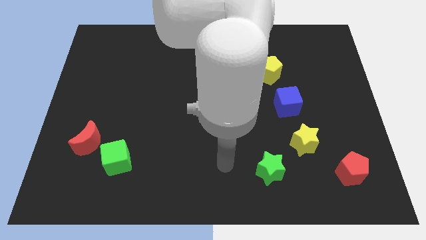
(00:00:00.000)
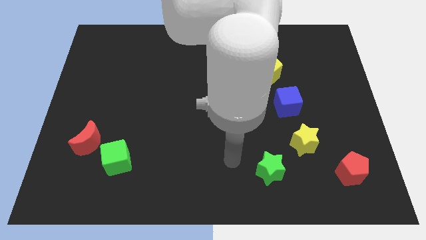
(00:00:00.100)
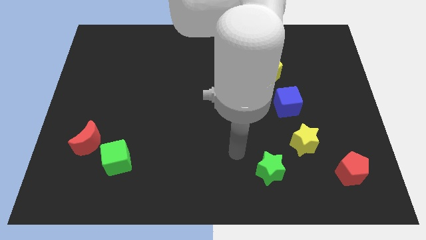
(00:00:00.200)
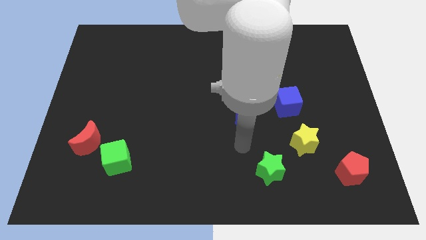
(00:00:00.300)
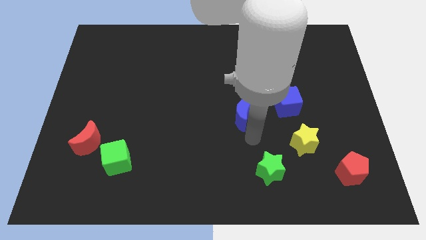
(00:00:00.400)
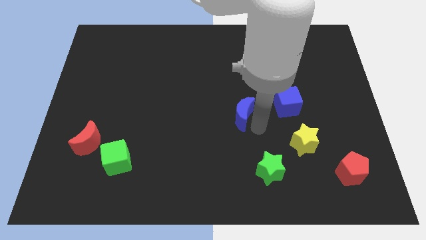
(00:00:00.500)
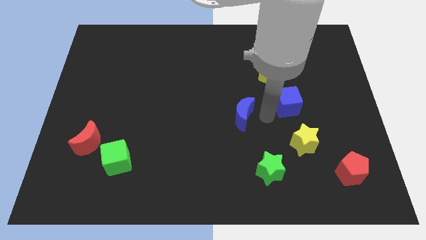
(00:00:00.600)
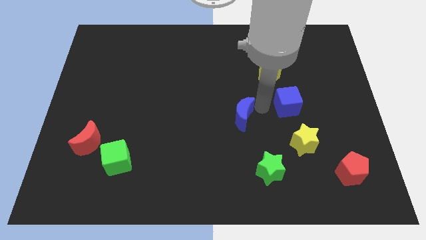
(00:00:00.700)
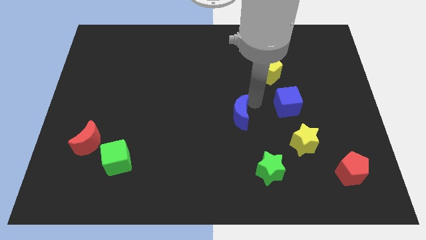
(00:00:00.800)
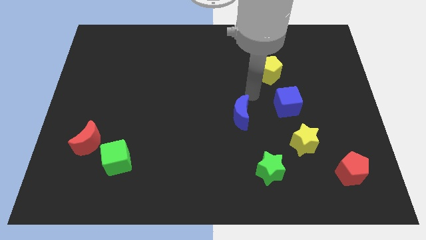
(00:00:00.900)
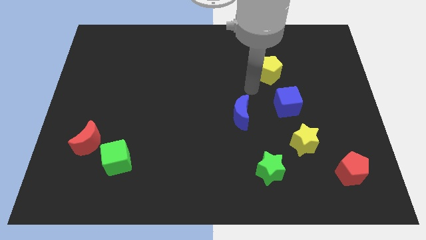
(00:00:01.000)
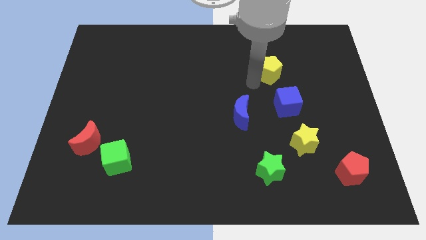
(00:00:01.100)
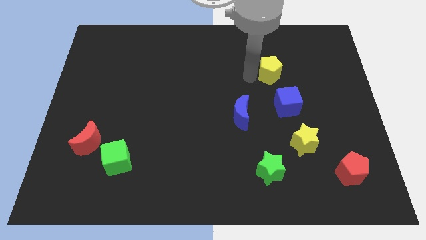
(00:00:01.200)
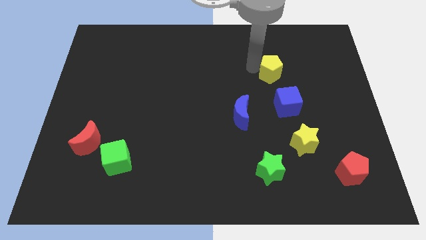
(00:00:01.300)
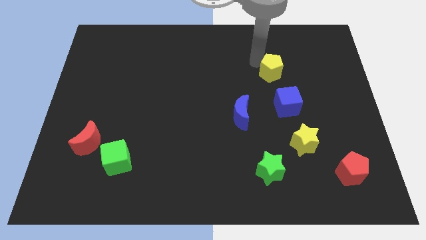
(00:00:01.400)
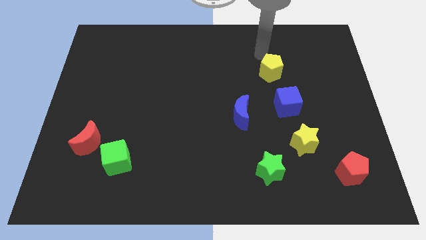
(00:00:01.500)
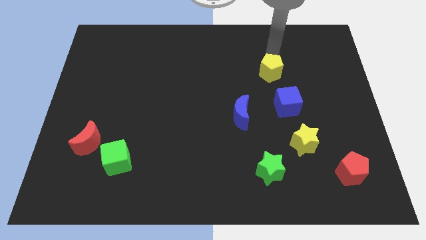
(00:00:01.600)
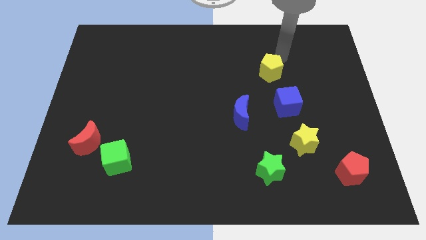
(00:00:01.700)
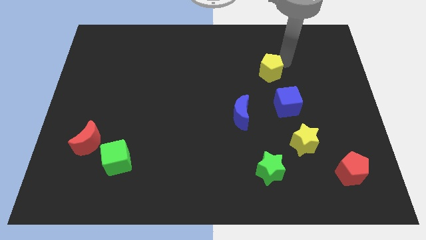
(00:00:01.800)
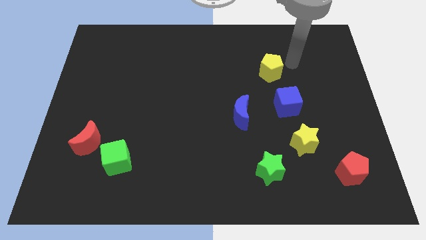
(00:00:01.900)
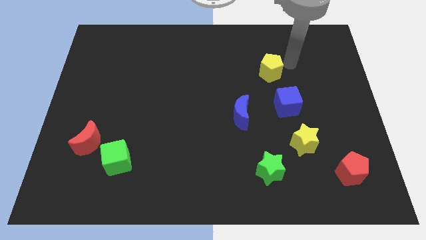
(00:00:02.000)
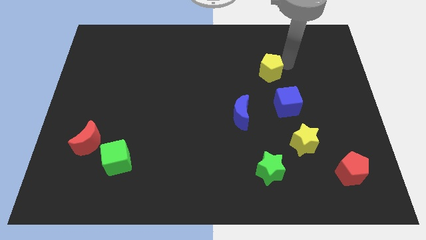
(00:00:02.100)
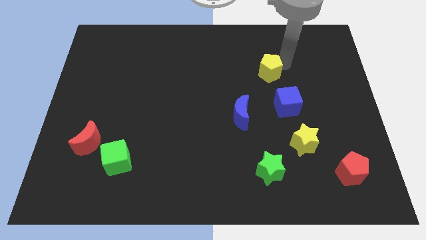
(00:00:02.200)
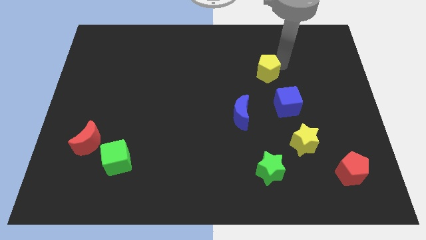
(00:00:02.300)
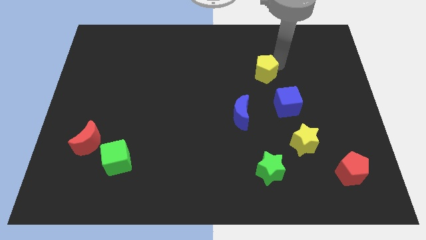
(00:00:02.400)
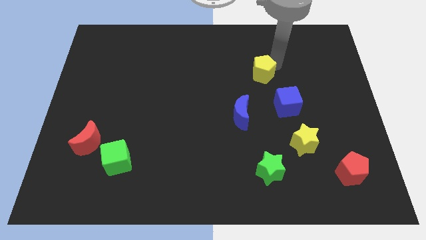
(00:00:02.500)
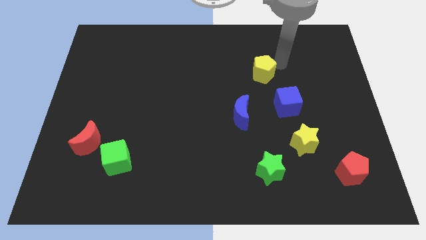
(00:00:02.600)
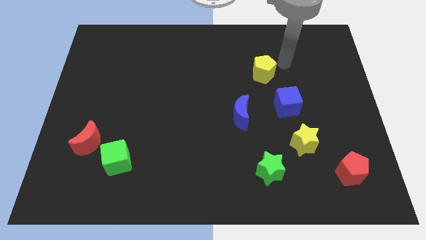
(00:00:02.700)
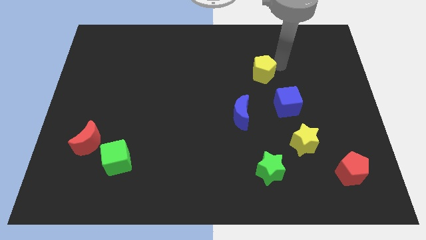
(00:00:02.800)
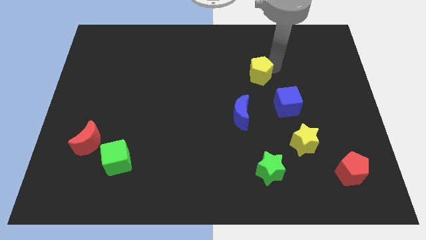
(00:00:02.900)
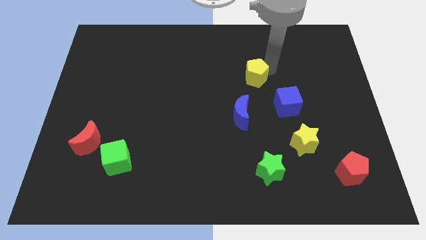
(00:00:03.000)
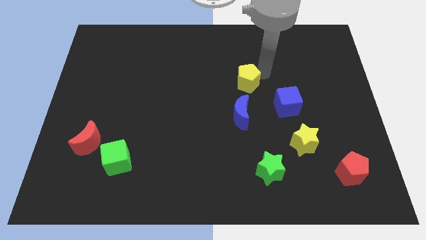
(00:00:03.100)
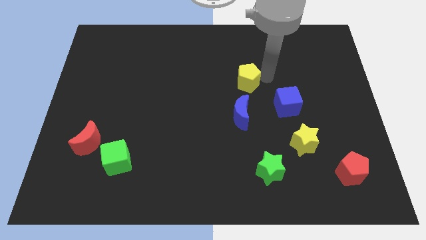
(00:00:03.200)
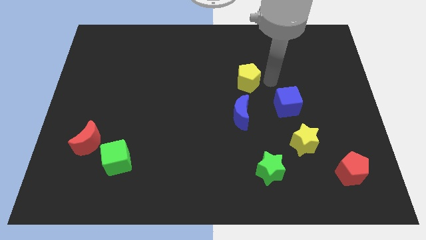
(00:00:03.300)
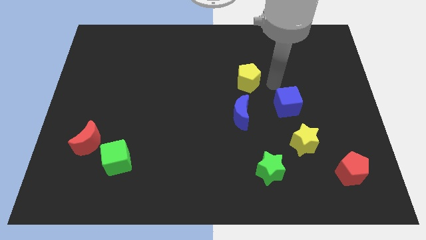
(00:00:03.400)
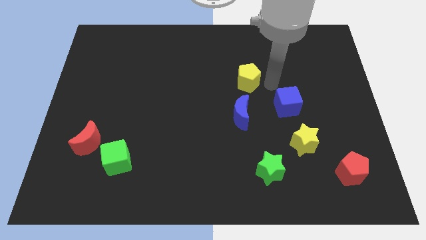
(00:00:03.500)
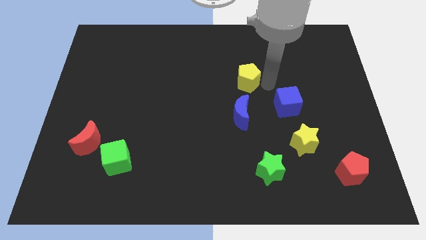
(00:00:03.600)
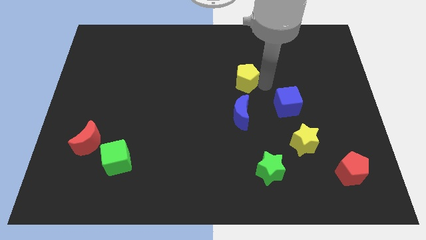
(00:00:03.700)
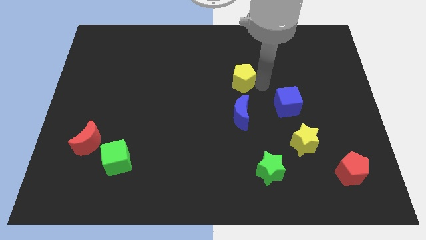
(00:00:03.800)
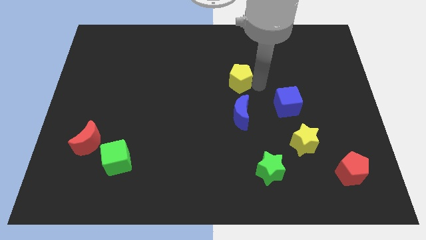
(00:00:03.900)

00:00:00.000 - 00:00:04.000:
slightly move the yellow pentagon left

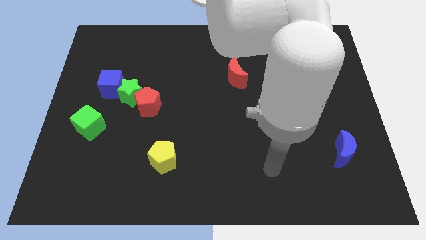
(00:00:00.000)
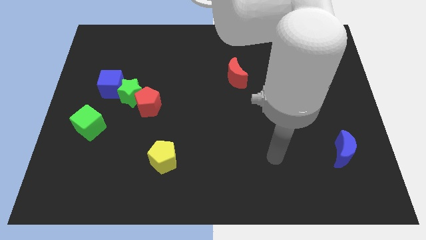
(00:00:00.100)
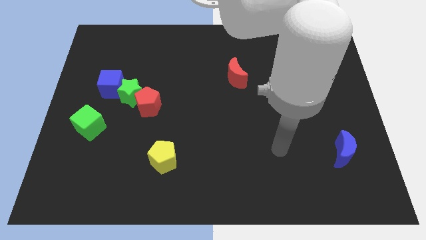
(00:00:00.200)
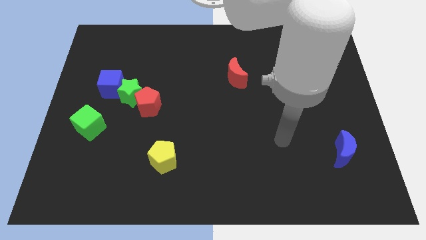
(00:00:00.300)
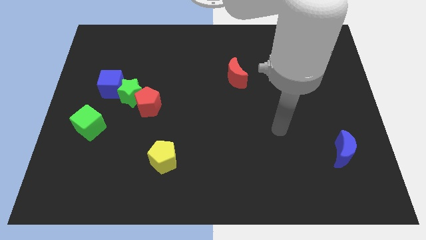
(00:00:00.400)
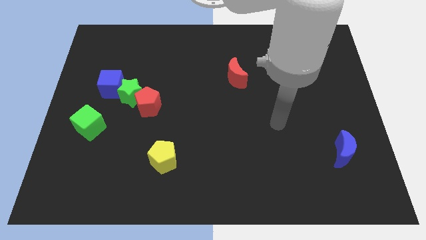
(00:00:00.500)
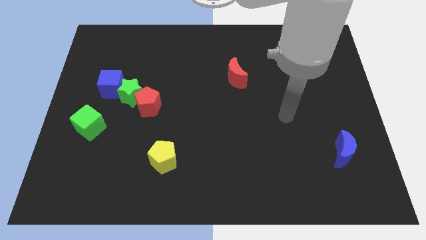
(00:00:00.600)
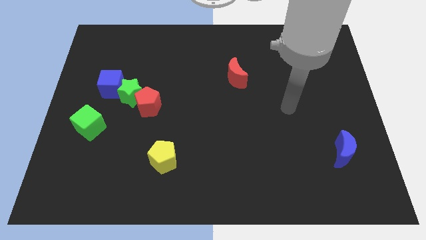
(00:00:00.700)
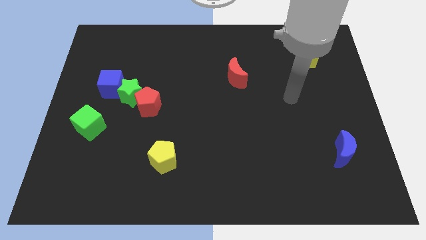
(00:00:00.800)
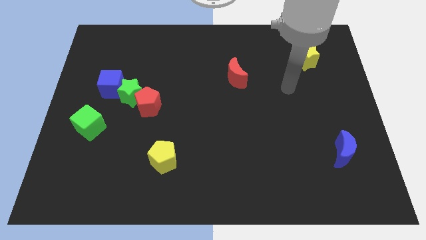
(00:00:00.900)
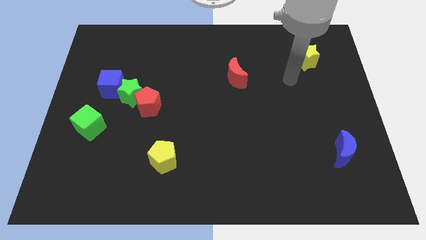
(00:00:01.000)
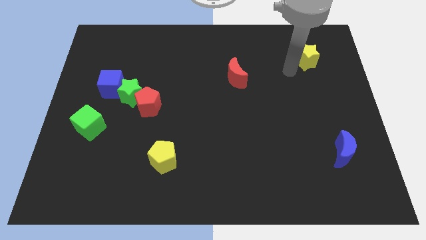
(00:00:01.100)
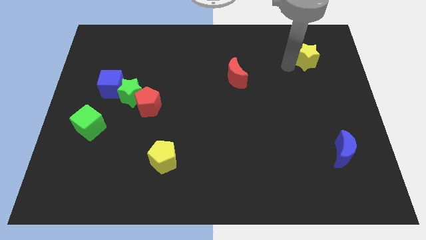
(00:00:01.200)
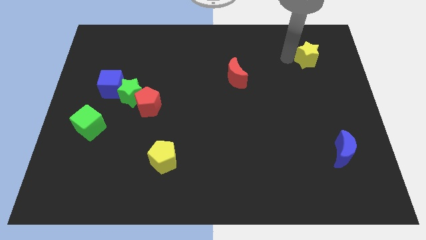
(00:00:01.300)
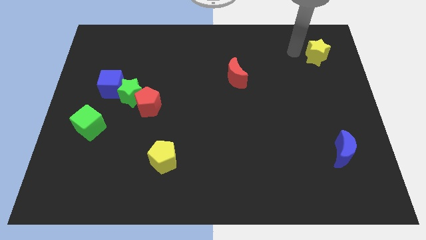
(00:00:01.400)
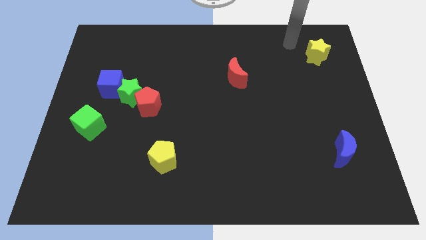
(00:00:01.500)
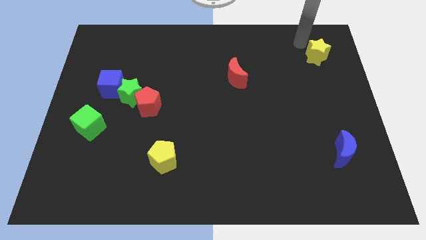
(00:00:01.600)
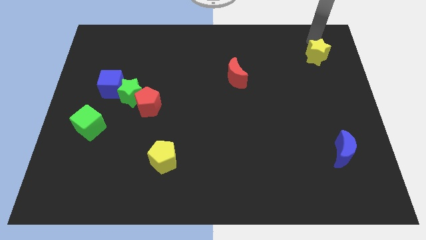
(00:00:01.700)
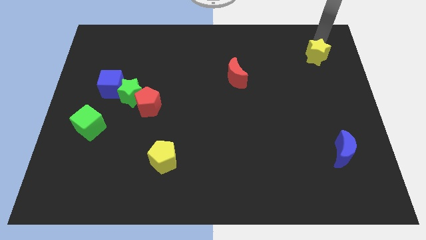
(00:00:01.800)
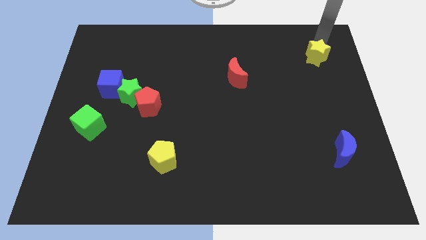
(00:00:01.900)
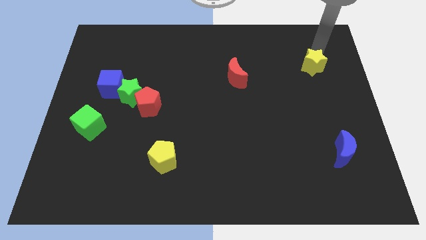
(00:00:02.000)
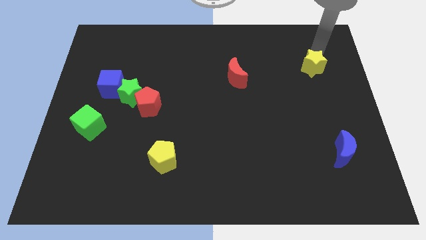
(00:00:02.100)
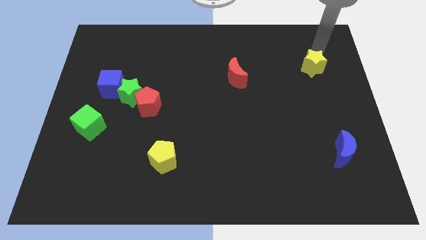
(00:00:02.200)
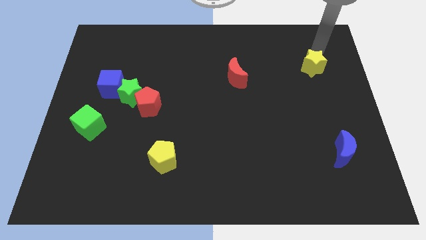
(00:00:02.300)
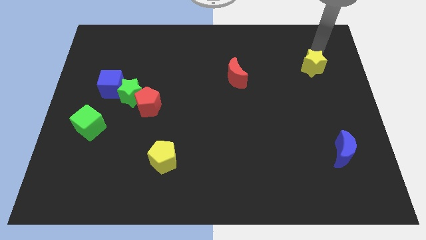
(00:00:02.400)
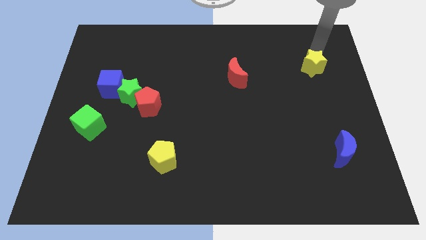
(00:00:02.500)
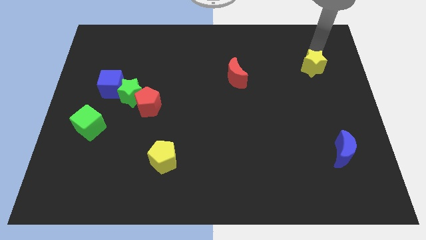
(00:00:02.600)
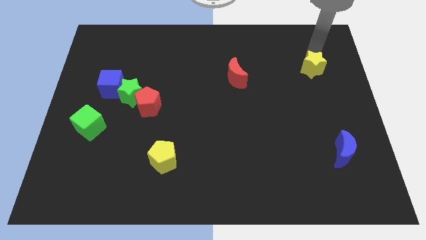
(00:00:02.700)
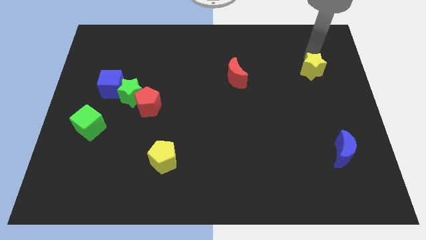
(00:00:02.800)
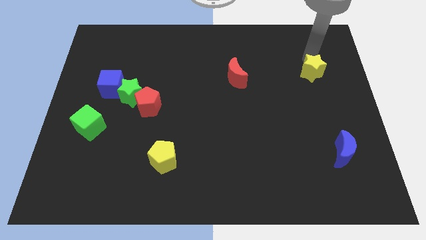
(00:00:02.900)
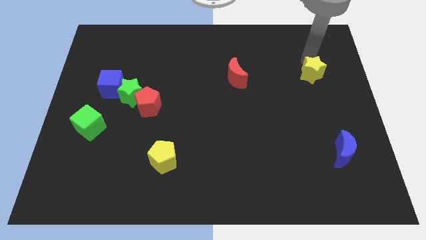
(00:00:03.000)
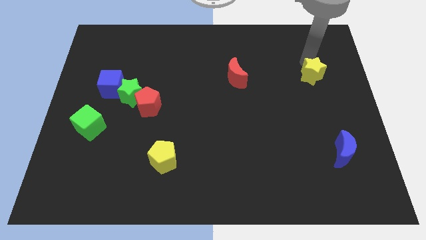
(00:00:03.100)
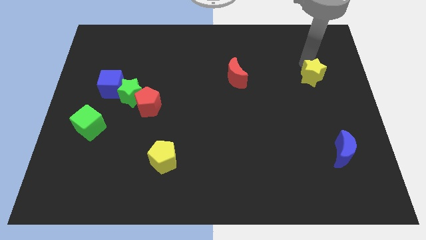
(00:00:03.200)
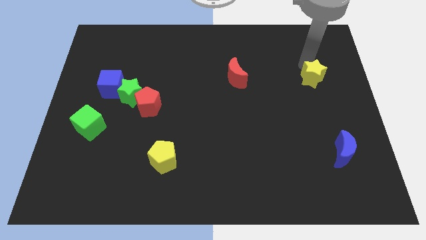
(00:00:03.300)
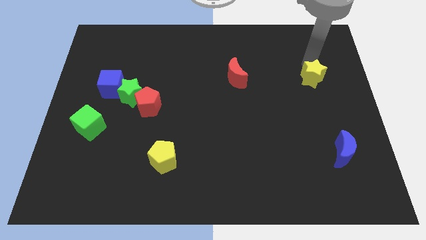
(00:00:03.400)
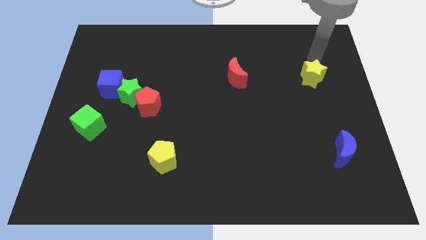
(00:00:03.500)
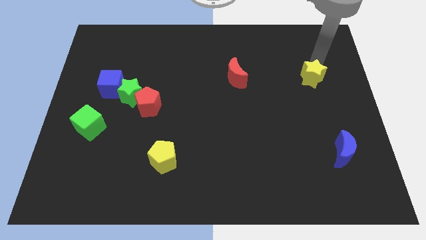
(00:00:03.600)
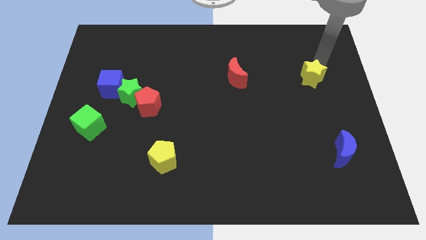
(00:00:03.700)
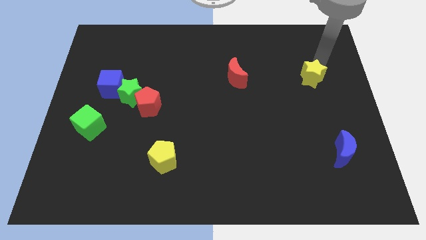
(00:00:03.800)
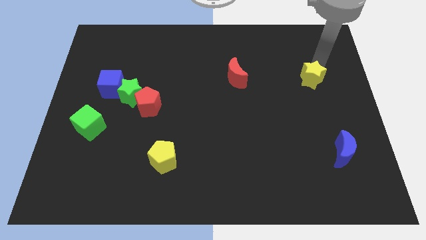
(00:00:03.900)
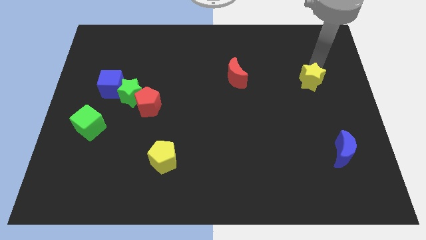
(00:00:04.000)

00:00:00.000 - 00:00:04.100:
move the yellow star a little down

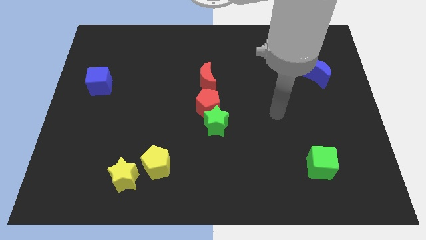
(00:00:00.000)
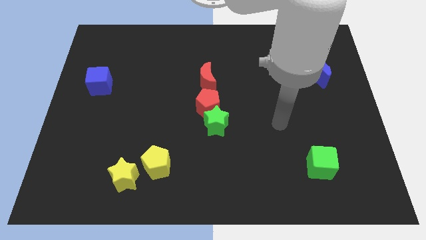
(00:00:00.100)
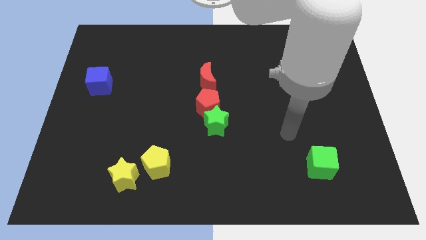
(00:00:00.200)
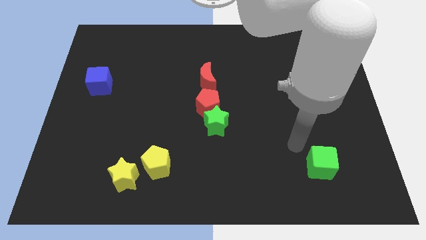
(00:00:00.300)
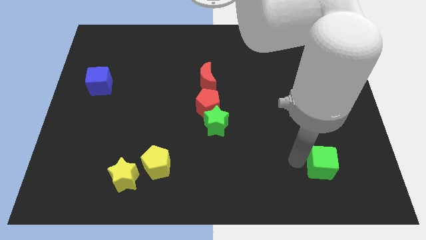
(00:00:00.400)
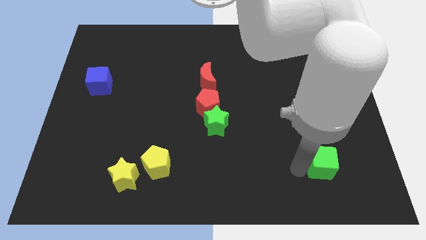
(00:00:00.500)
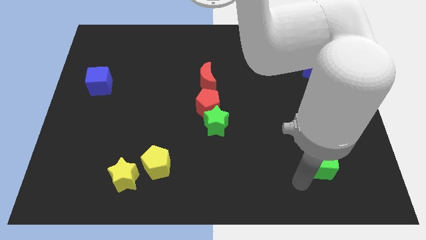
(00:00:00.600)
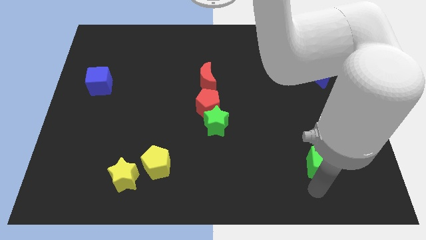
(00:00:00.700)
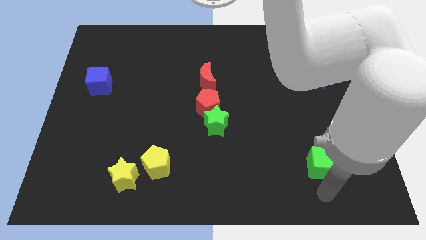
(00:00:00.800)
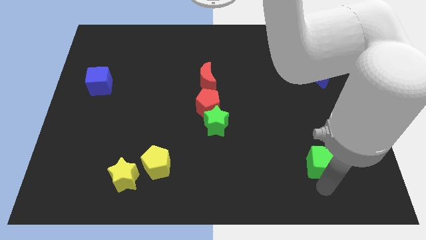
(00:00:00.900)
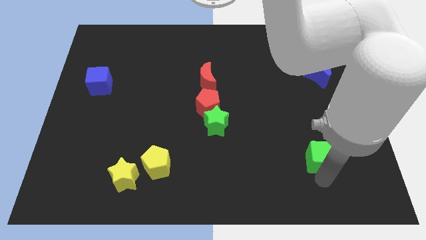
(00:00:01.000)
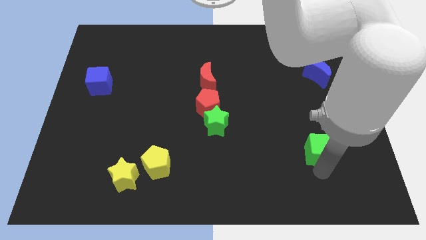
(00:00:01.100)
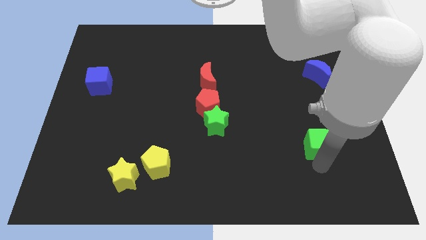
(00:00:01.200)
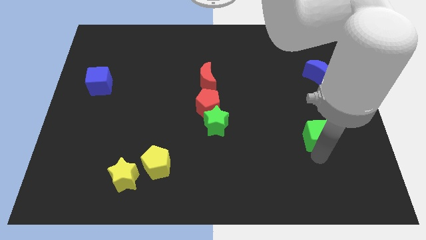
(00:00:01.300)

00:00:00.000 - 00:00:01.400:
slightly move the green cube upwards
